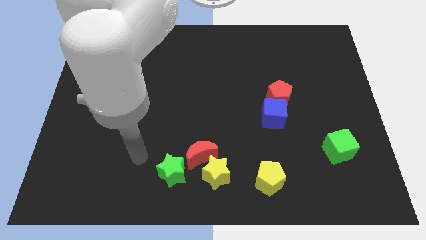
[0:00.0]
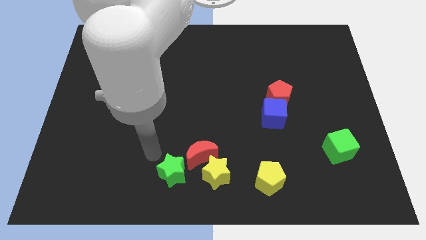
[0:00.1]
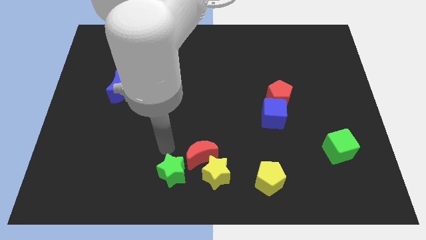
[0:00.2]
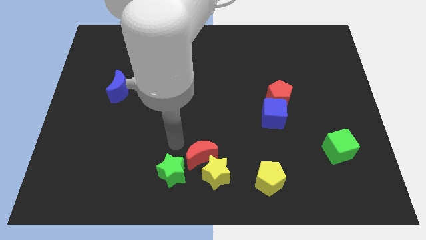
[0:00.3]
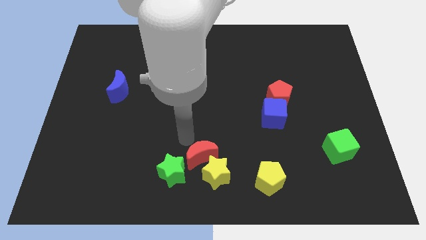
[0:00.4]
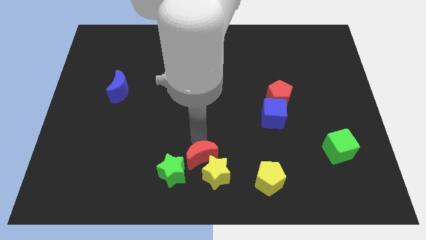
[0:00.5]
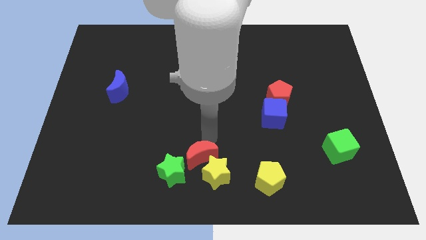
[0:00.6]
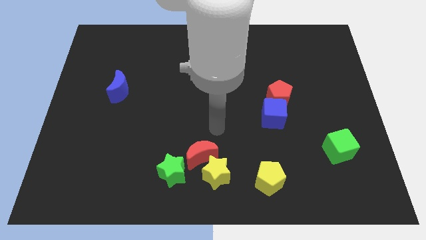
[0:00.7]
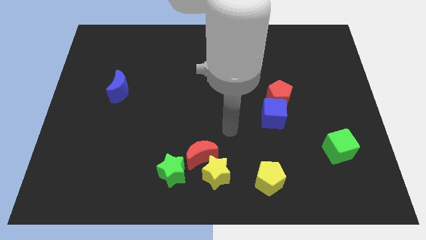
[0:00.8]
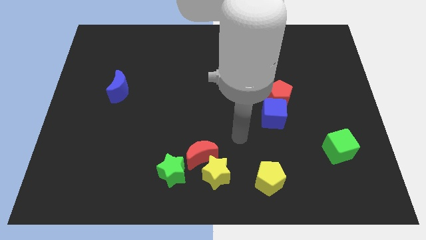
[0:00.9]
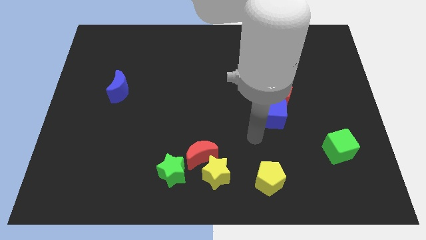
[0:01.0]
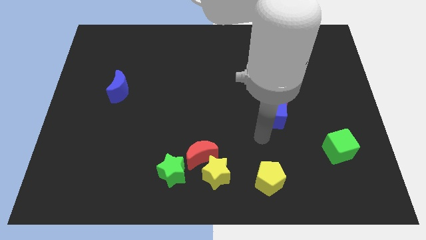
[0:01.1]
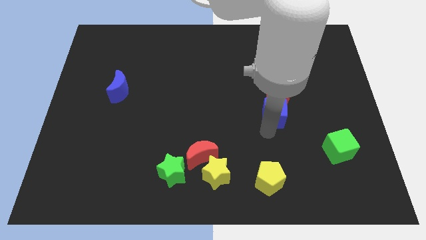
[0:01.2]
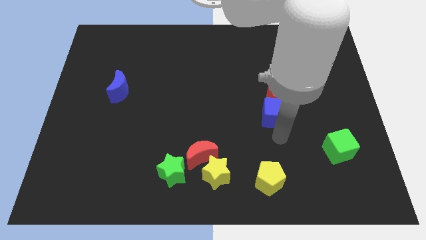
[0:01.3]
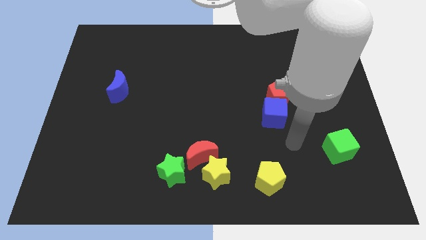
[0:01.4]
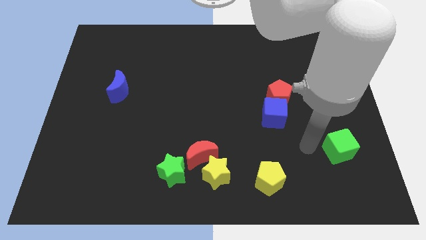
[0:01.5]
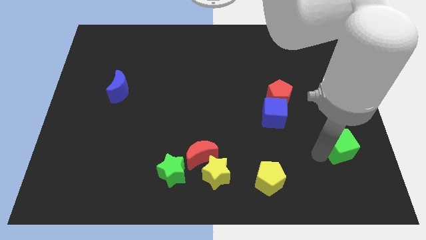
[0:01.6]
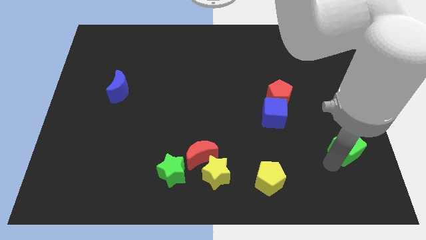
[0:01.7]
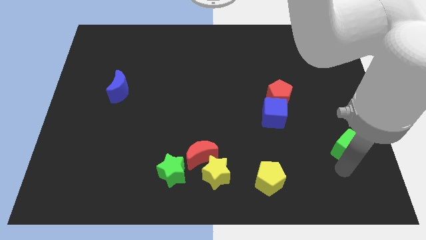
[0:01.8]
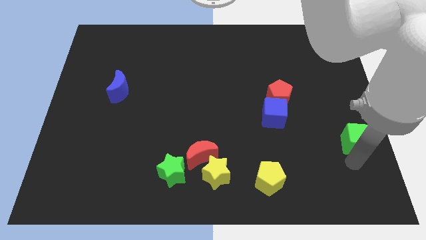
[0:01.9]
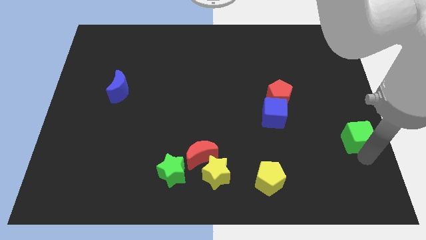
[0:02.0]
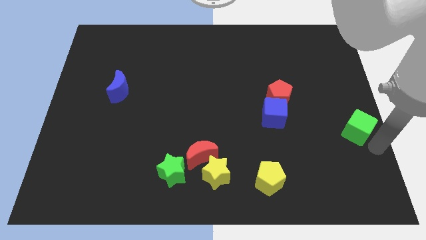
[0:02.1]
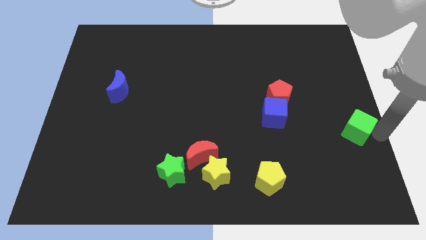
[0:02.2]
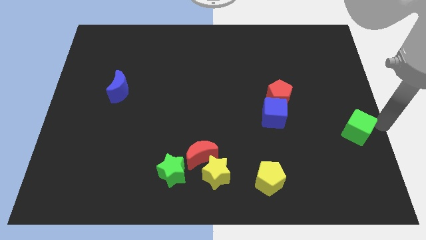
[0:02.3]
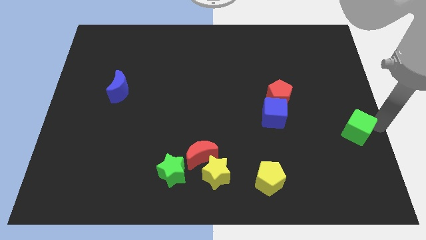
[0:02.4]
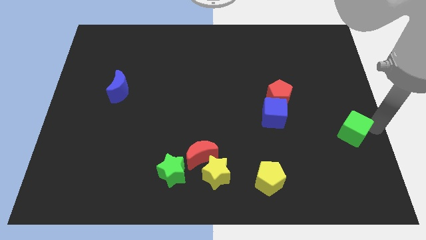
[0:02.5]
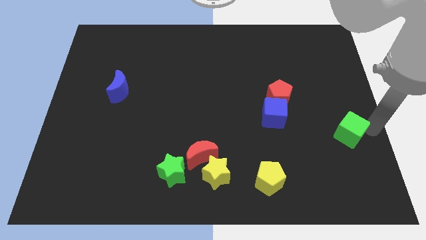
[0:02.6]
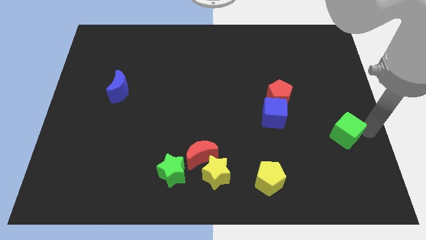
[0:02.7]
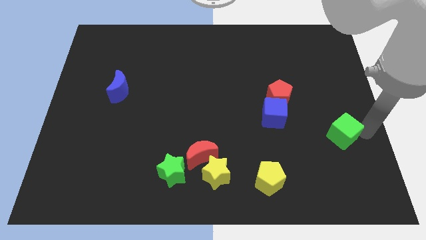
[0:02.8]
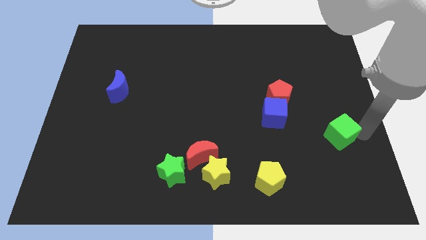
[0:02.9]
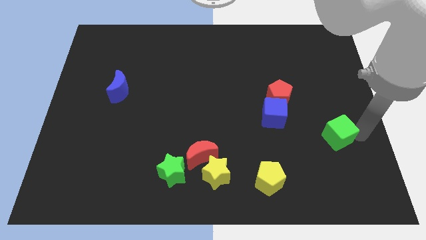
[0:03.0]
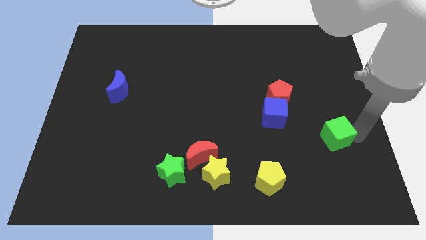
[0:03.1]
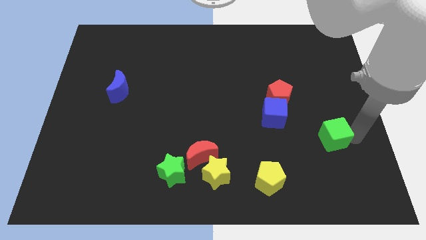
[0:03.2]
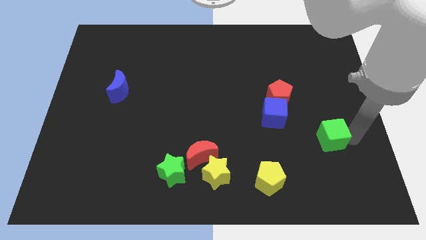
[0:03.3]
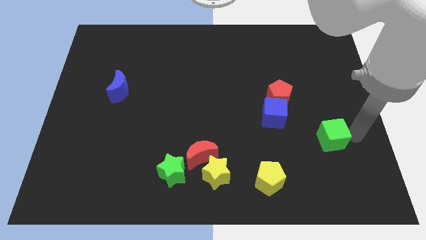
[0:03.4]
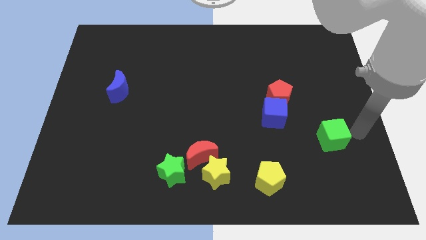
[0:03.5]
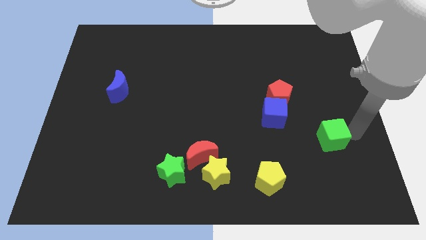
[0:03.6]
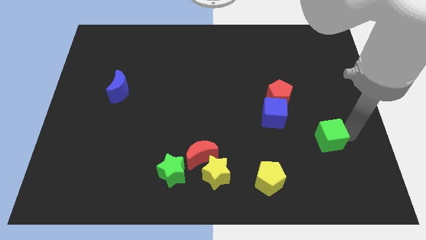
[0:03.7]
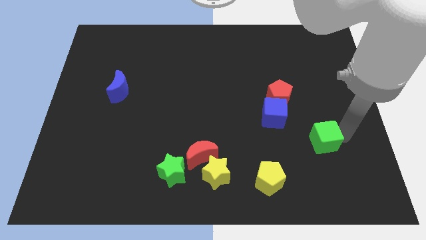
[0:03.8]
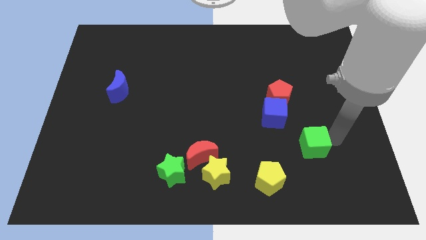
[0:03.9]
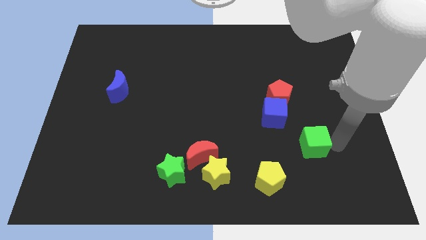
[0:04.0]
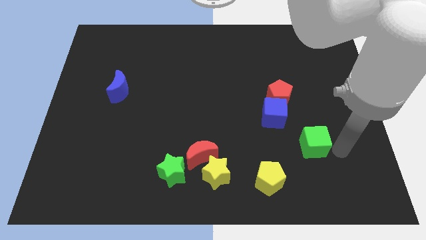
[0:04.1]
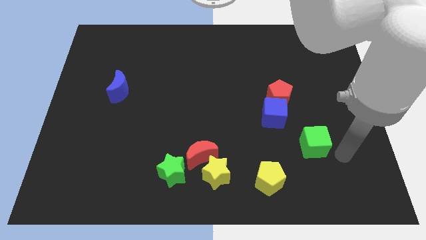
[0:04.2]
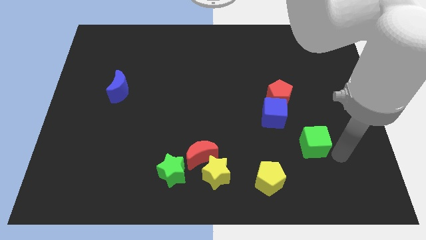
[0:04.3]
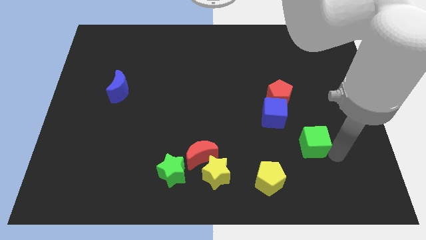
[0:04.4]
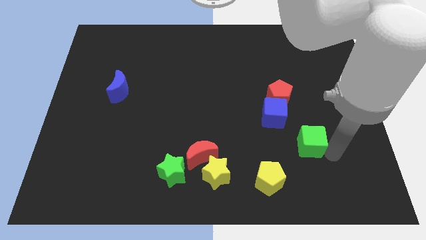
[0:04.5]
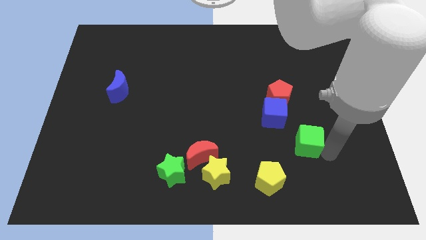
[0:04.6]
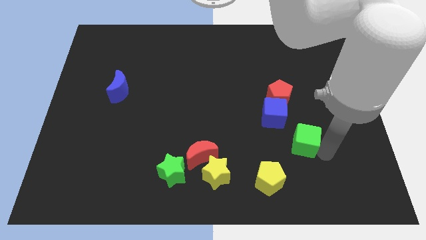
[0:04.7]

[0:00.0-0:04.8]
slide the green cube to the bottom of the red pentagon

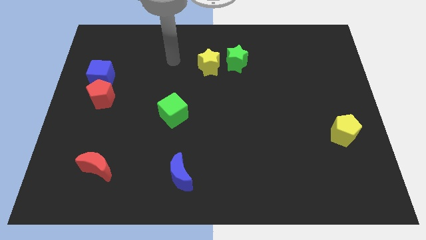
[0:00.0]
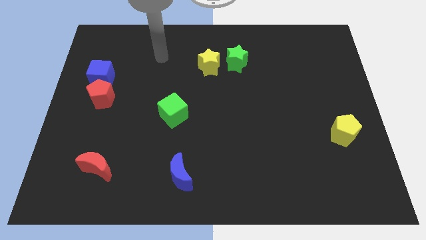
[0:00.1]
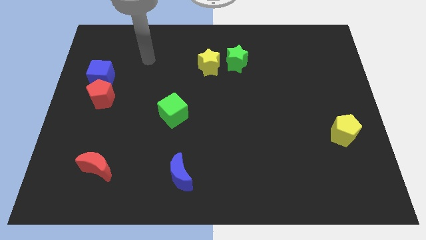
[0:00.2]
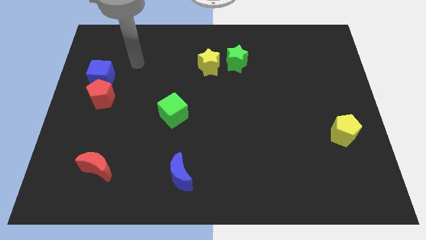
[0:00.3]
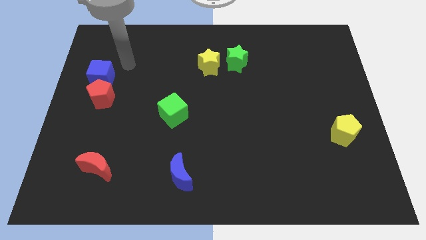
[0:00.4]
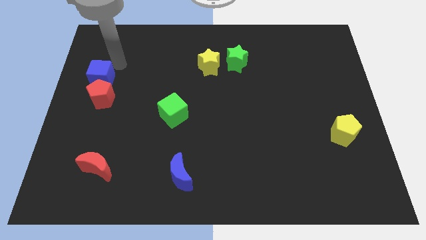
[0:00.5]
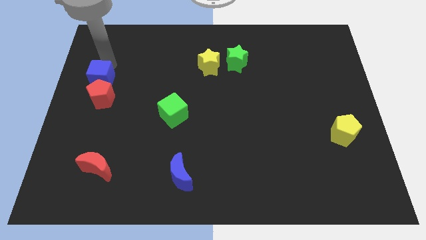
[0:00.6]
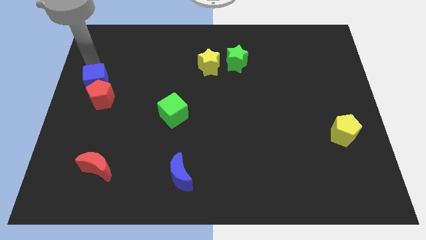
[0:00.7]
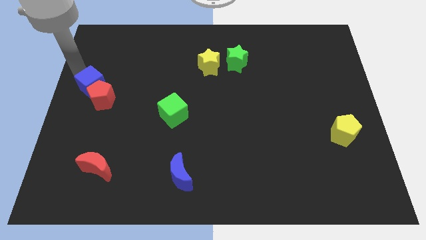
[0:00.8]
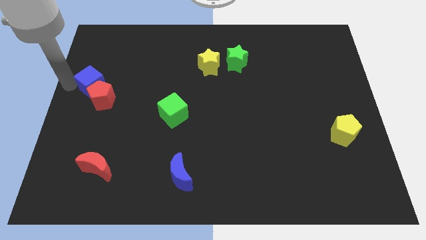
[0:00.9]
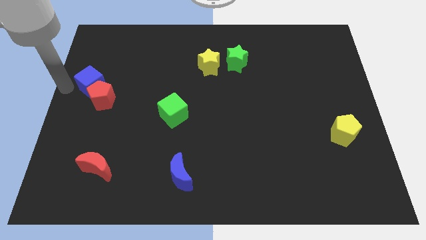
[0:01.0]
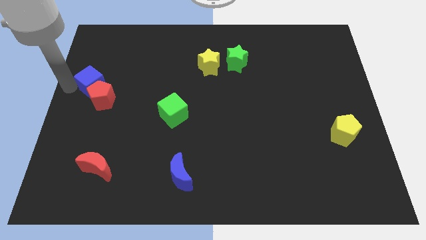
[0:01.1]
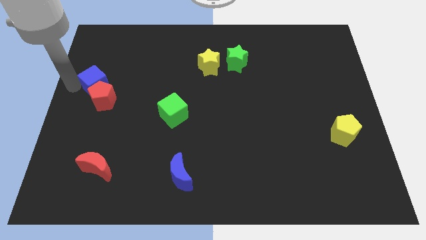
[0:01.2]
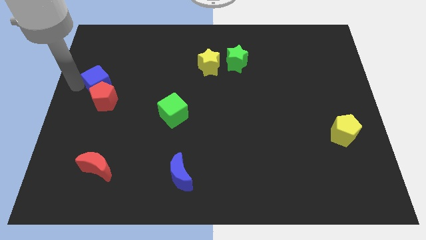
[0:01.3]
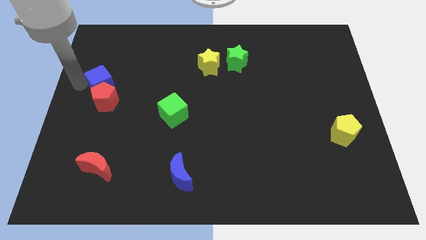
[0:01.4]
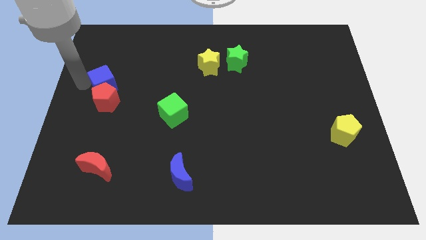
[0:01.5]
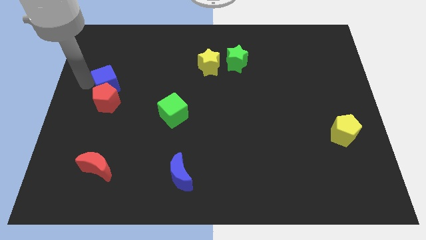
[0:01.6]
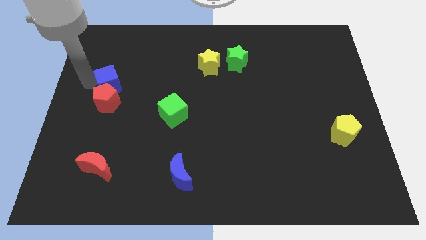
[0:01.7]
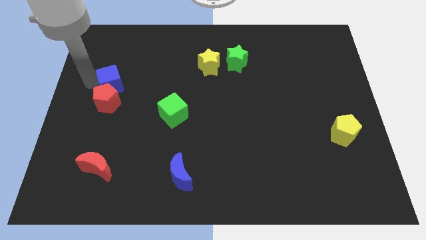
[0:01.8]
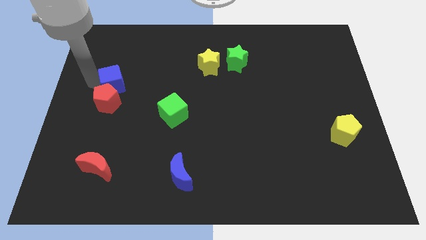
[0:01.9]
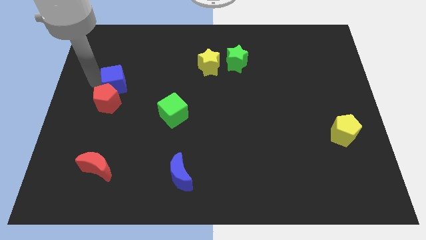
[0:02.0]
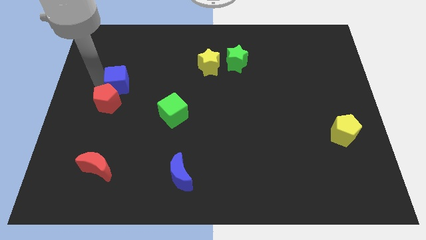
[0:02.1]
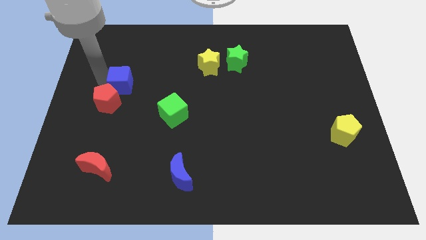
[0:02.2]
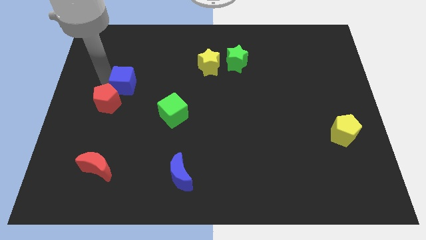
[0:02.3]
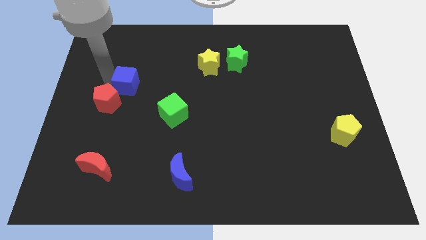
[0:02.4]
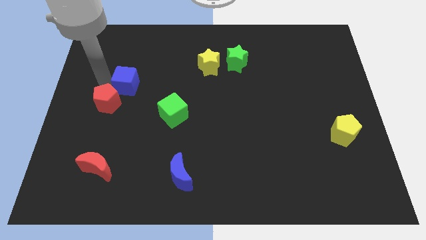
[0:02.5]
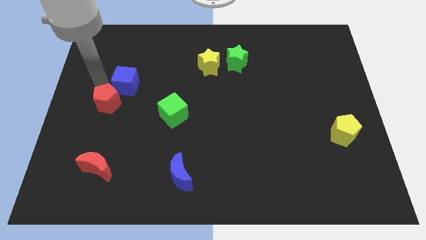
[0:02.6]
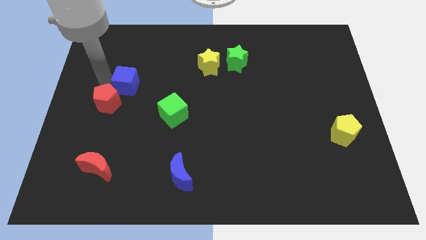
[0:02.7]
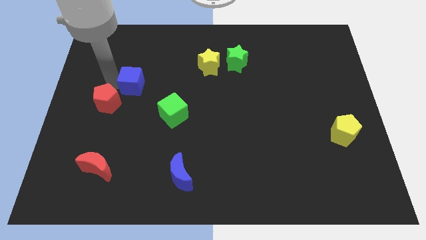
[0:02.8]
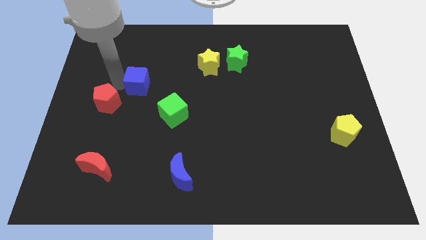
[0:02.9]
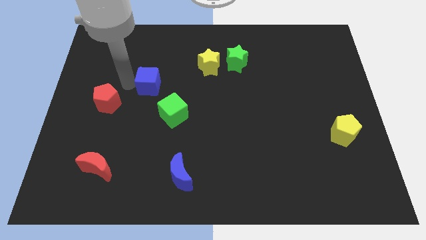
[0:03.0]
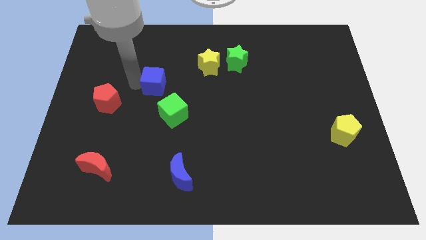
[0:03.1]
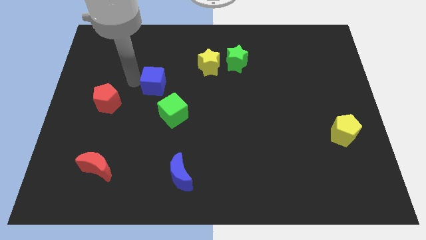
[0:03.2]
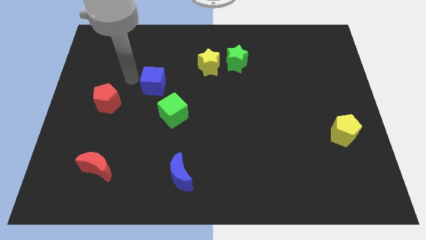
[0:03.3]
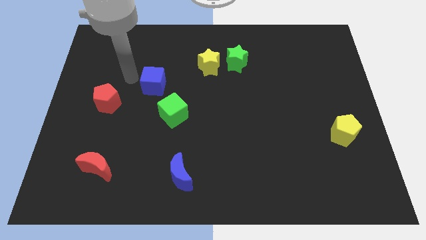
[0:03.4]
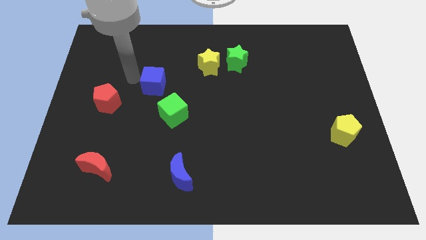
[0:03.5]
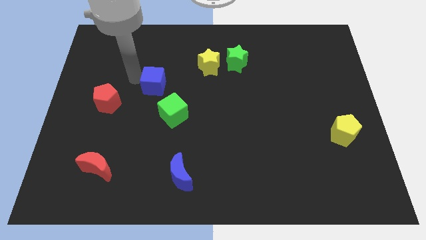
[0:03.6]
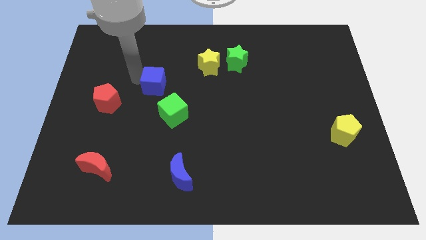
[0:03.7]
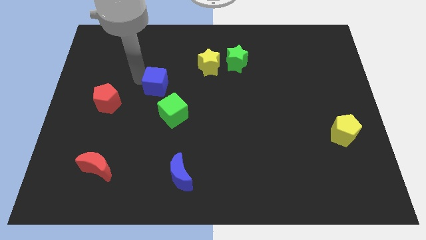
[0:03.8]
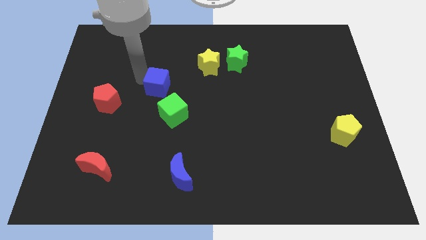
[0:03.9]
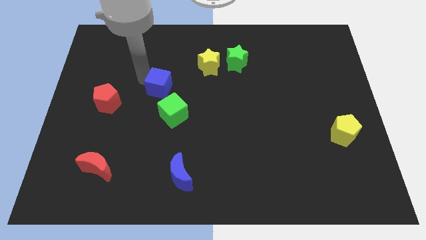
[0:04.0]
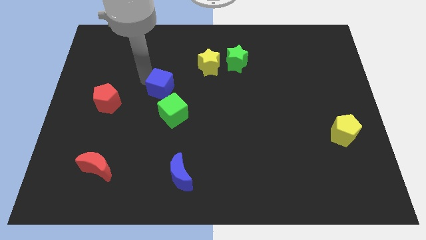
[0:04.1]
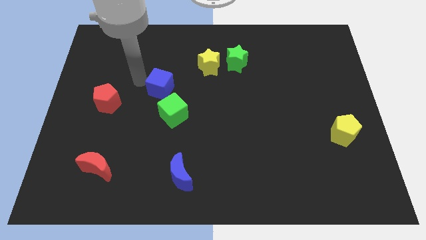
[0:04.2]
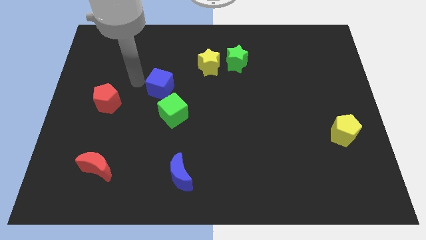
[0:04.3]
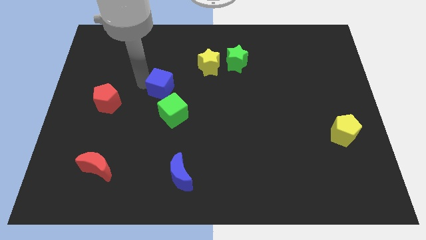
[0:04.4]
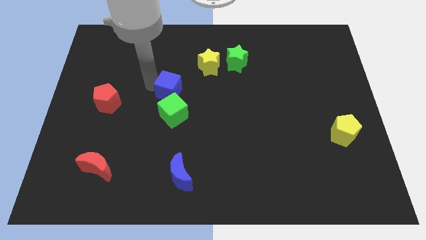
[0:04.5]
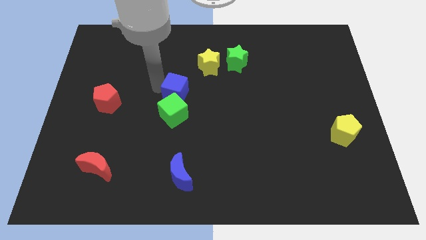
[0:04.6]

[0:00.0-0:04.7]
put the blue cube diagonally up and to the right of the green cube
